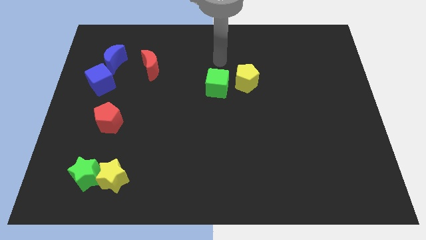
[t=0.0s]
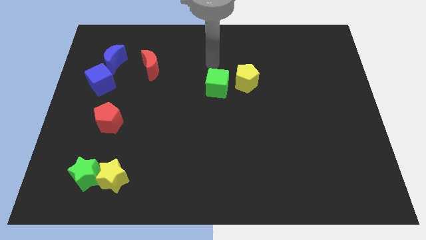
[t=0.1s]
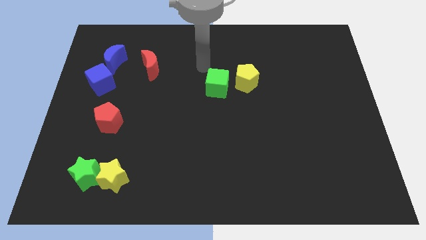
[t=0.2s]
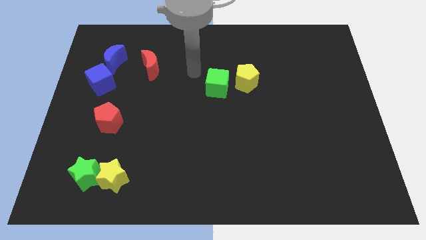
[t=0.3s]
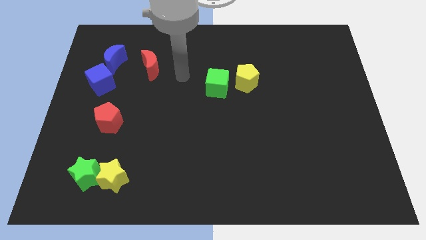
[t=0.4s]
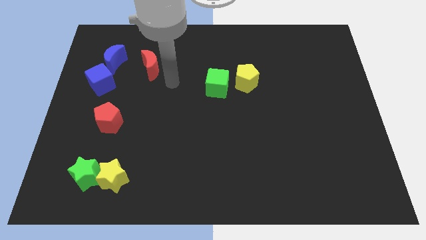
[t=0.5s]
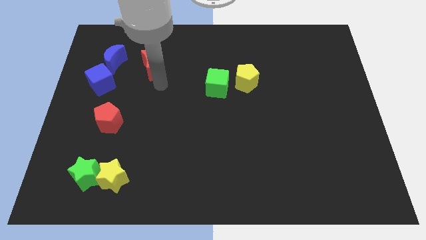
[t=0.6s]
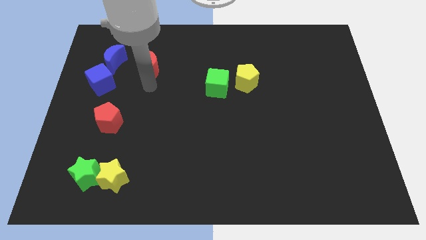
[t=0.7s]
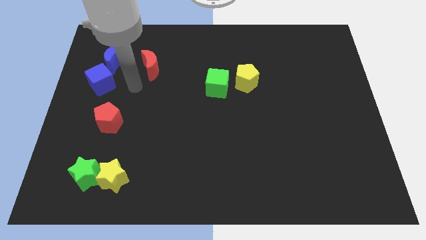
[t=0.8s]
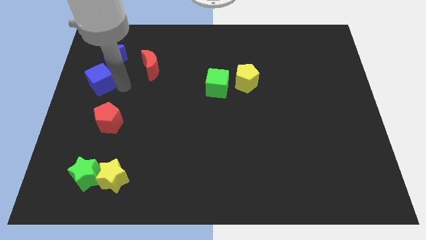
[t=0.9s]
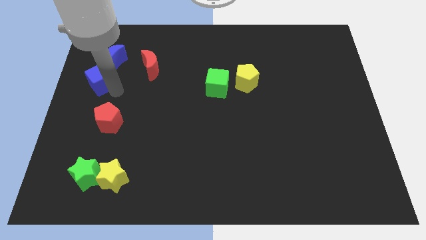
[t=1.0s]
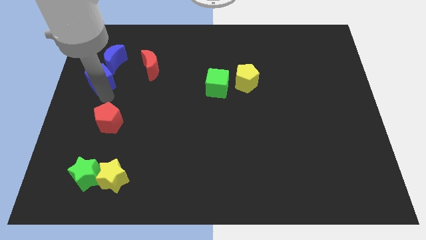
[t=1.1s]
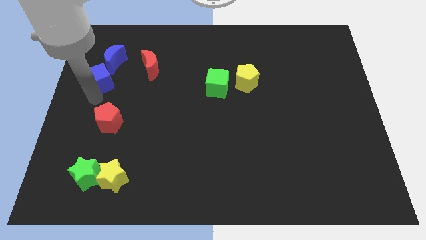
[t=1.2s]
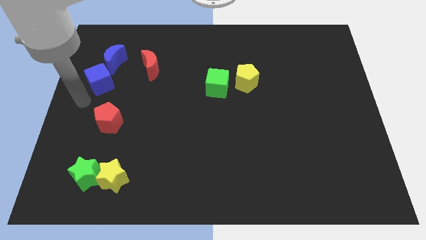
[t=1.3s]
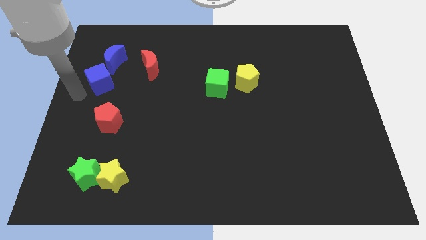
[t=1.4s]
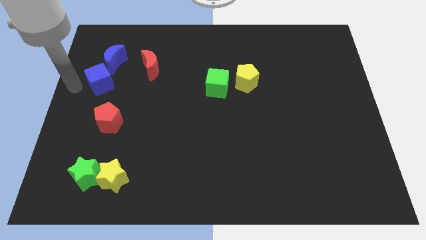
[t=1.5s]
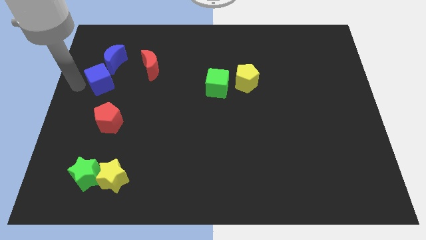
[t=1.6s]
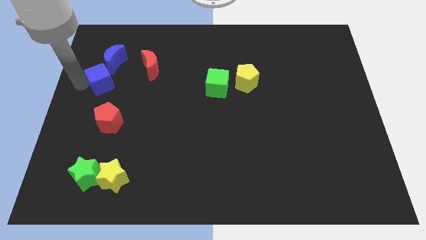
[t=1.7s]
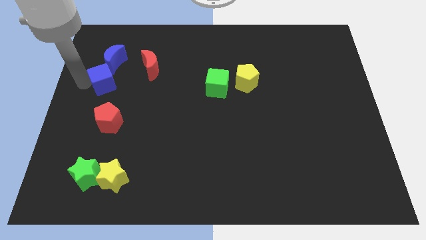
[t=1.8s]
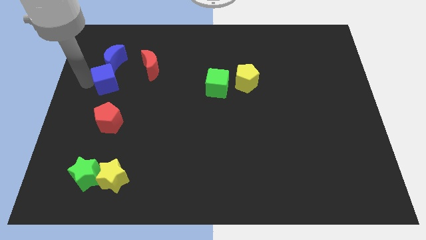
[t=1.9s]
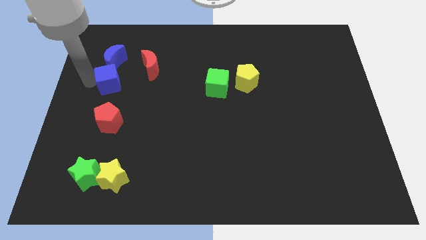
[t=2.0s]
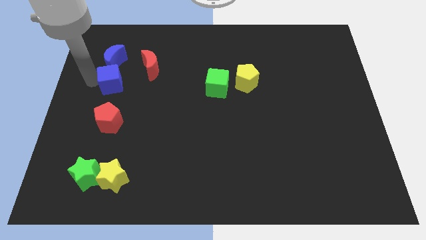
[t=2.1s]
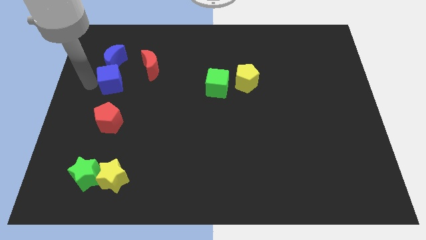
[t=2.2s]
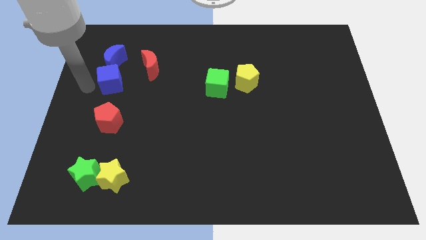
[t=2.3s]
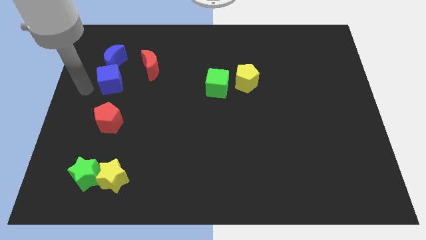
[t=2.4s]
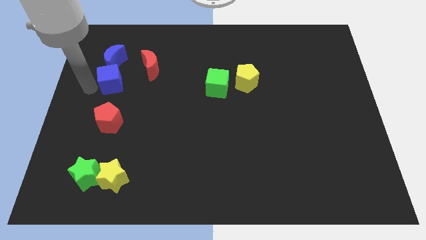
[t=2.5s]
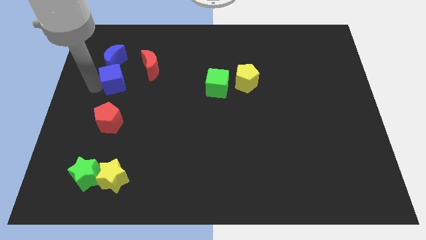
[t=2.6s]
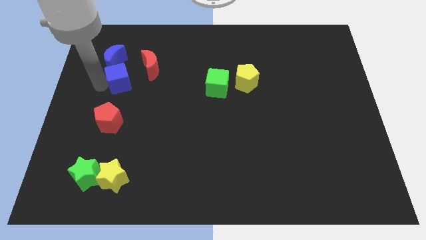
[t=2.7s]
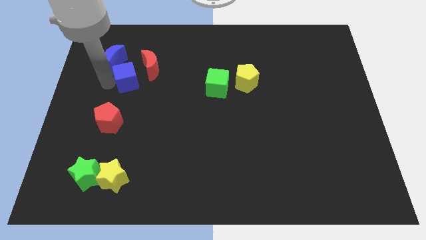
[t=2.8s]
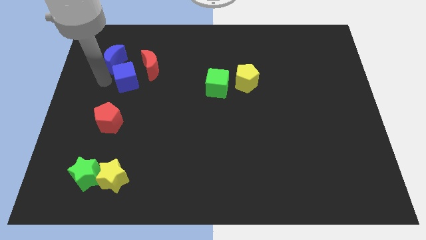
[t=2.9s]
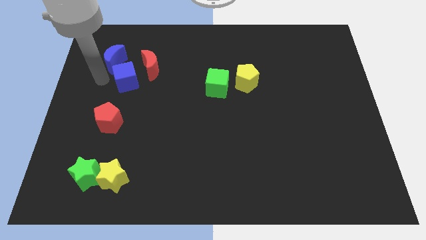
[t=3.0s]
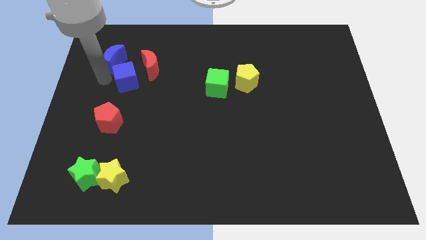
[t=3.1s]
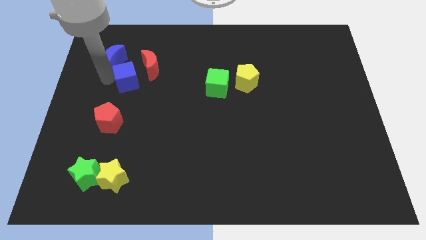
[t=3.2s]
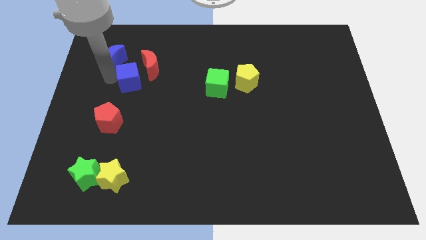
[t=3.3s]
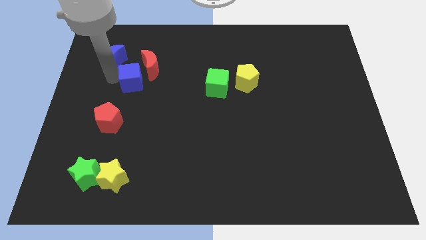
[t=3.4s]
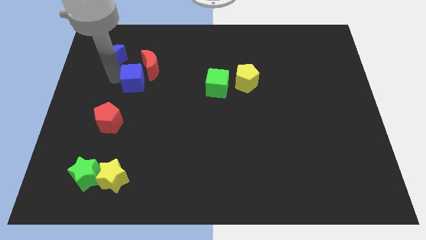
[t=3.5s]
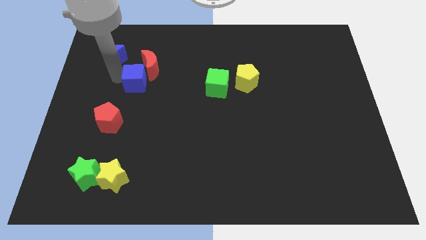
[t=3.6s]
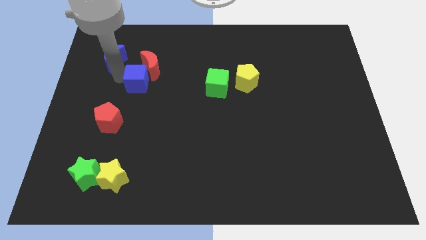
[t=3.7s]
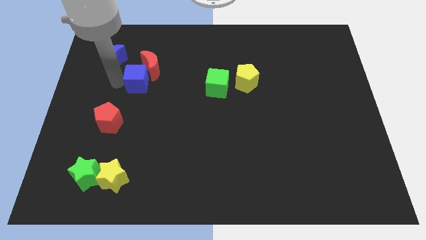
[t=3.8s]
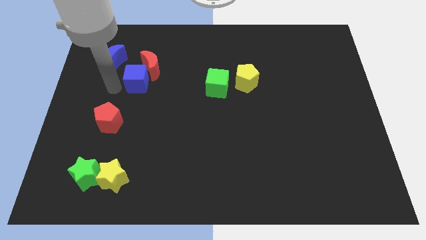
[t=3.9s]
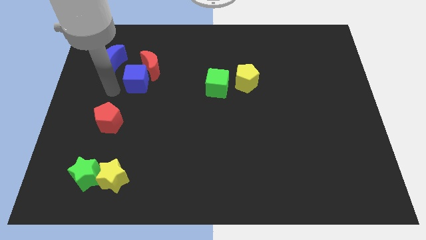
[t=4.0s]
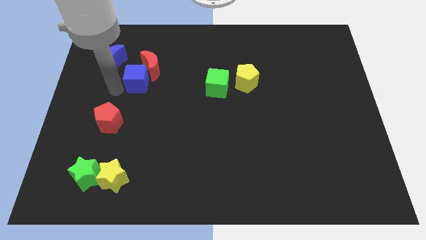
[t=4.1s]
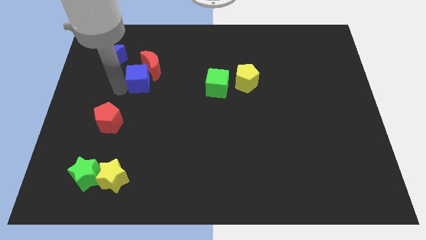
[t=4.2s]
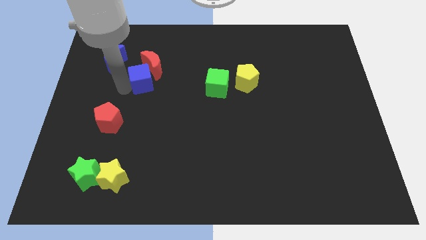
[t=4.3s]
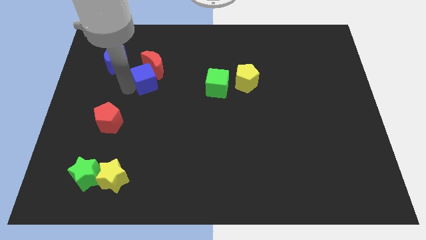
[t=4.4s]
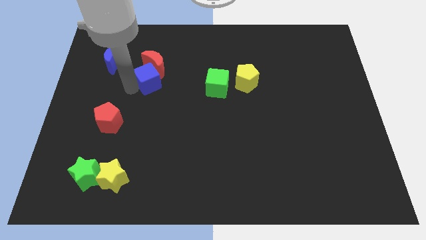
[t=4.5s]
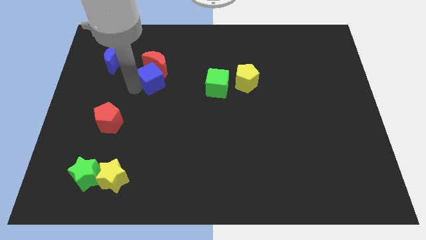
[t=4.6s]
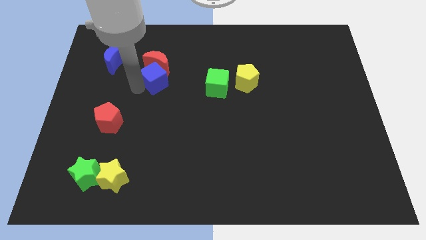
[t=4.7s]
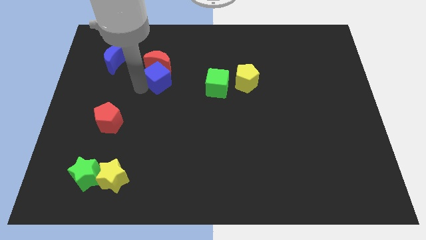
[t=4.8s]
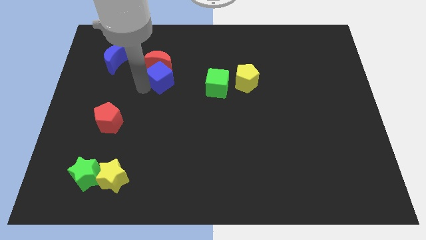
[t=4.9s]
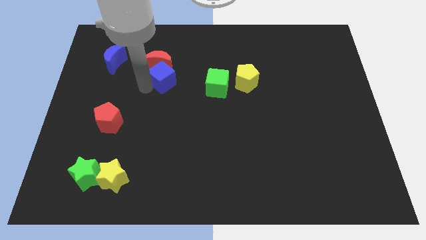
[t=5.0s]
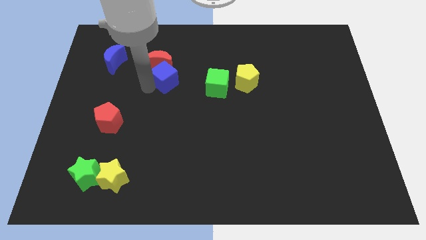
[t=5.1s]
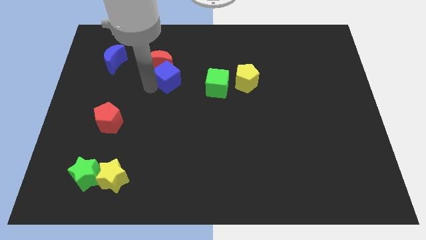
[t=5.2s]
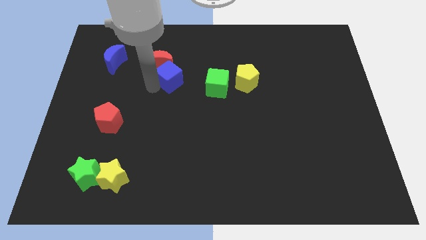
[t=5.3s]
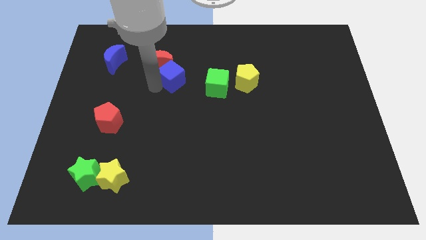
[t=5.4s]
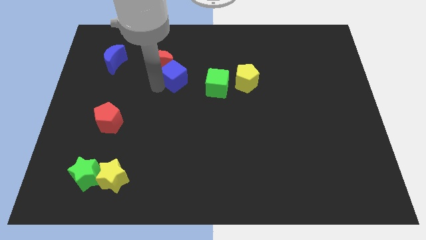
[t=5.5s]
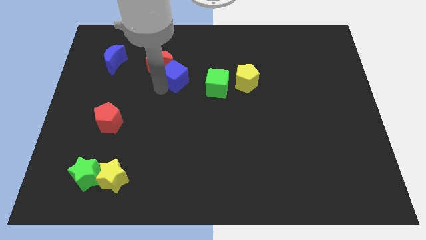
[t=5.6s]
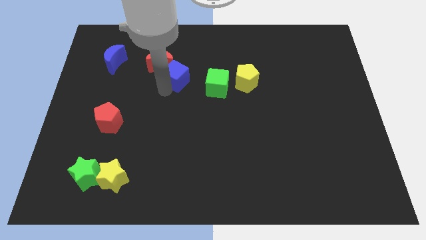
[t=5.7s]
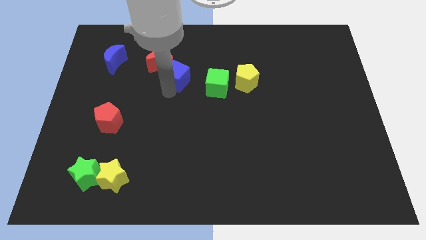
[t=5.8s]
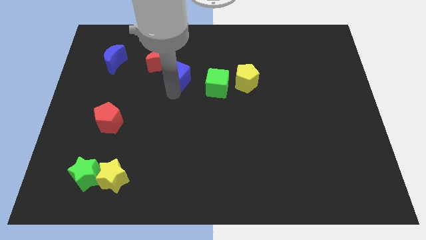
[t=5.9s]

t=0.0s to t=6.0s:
slide the blue cube just right of the red moon

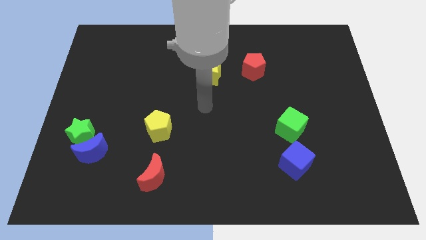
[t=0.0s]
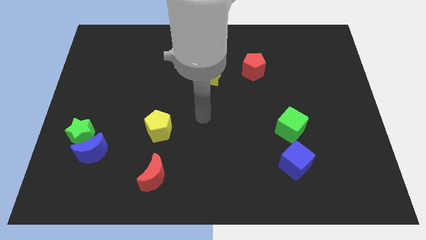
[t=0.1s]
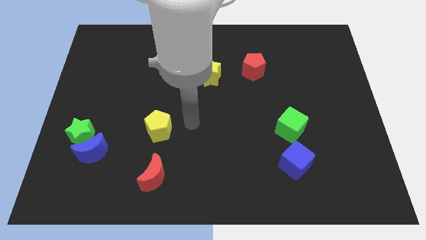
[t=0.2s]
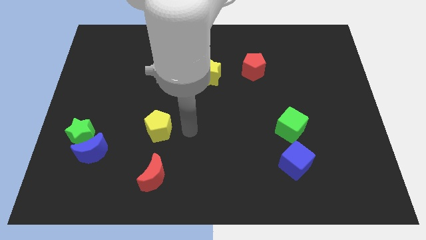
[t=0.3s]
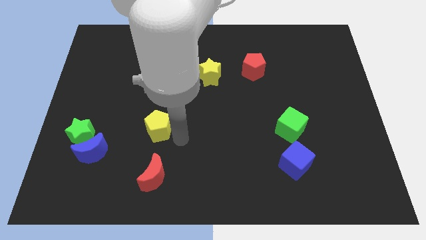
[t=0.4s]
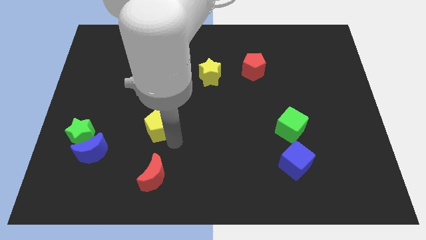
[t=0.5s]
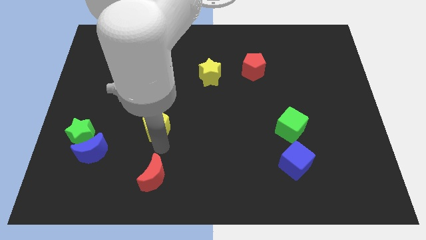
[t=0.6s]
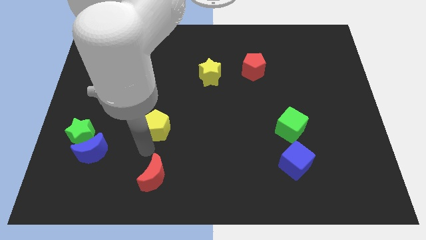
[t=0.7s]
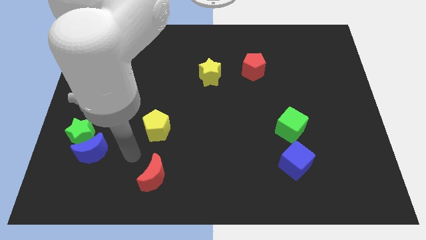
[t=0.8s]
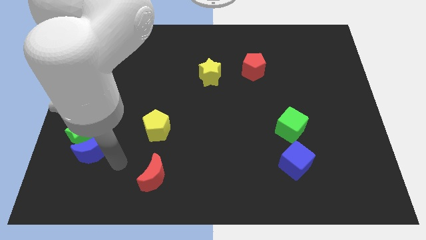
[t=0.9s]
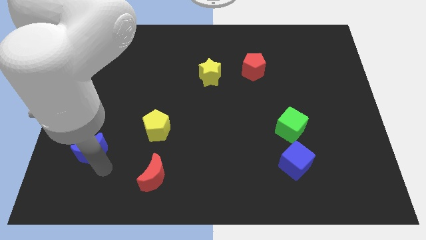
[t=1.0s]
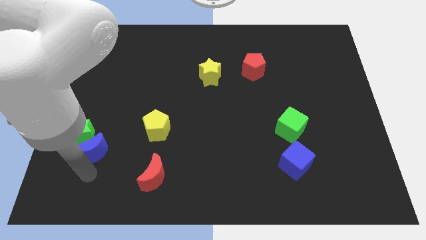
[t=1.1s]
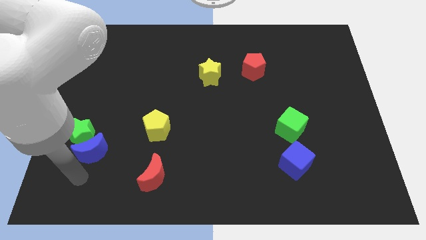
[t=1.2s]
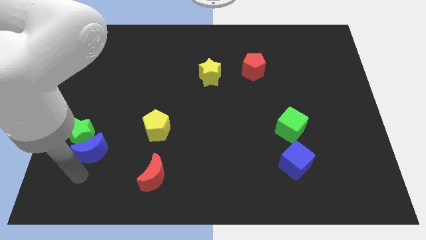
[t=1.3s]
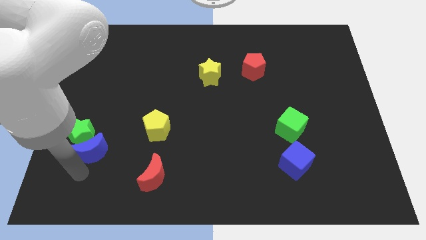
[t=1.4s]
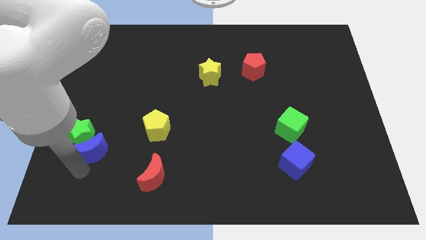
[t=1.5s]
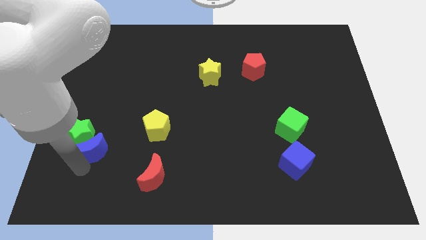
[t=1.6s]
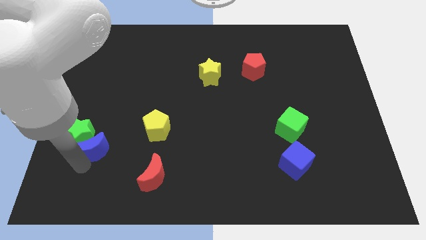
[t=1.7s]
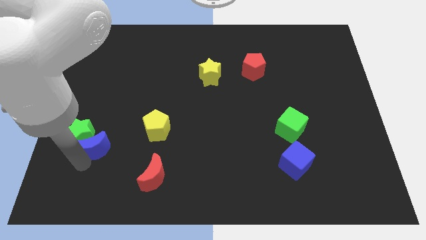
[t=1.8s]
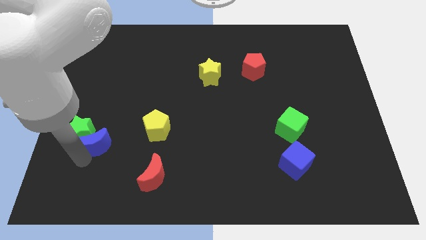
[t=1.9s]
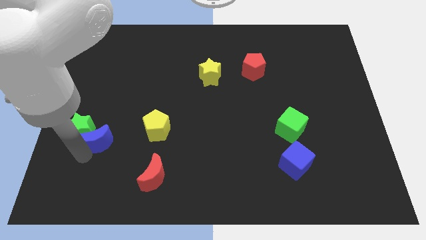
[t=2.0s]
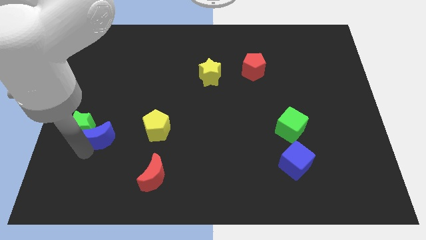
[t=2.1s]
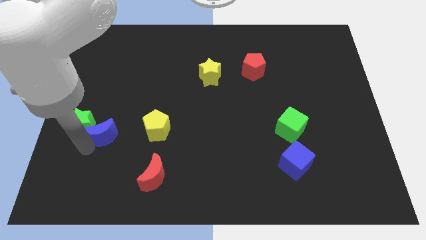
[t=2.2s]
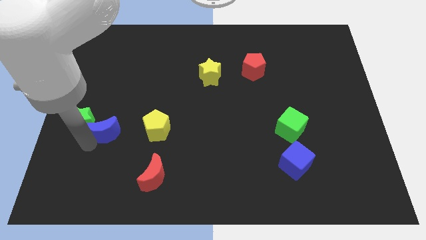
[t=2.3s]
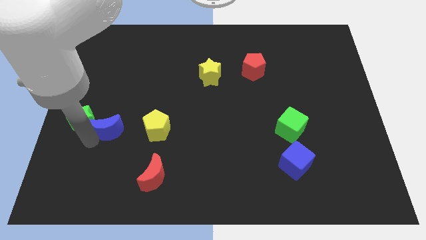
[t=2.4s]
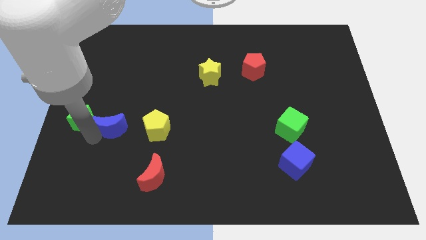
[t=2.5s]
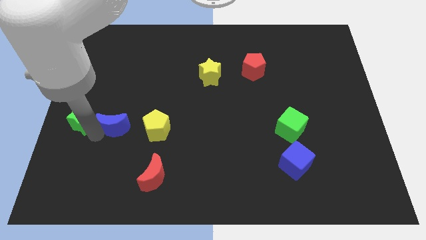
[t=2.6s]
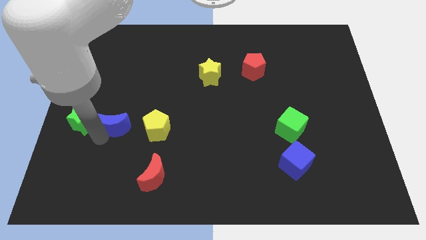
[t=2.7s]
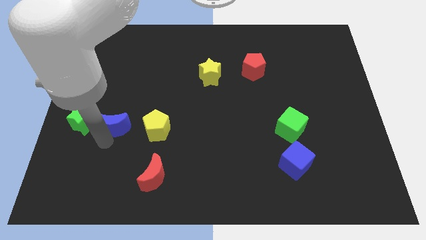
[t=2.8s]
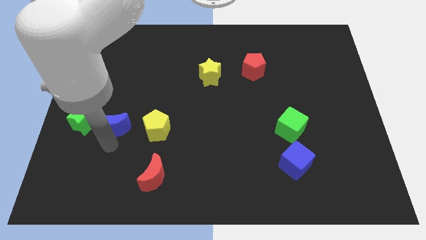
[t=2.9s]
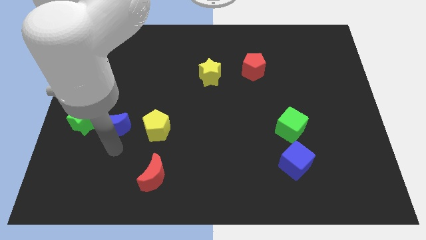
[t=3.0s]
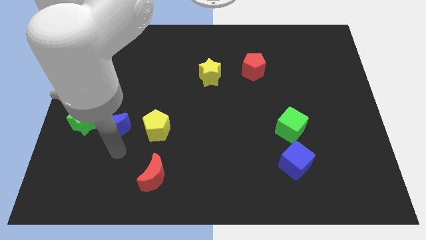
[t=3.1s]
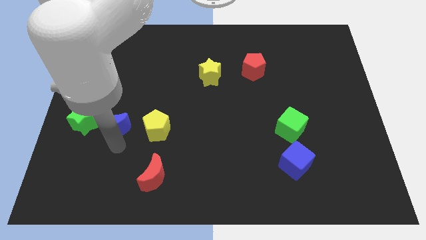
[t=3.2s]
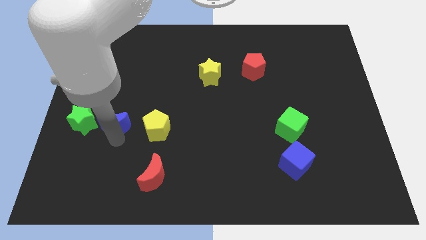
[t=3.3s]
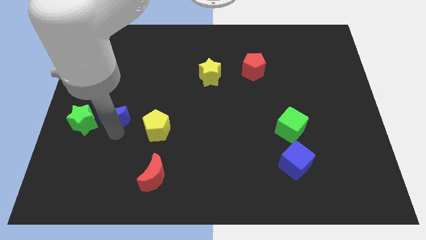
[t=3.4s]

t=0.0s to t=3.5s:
slide the blue moon to the top right side of the green star
